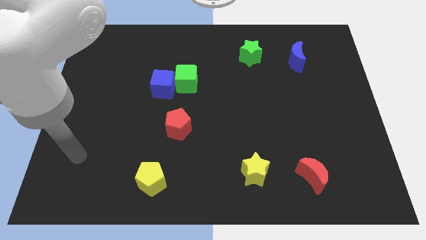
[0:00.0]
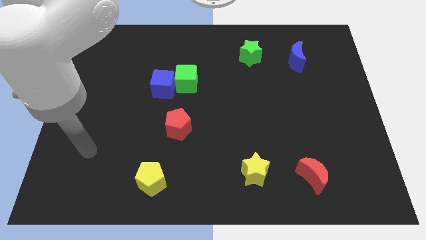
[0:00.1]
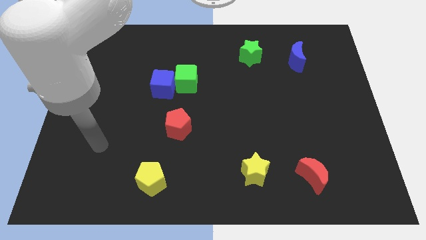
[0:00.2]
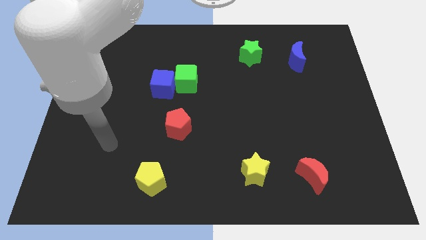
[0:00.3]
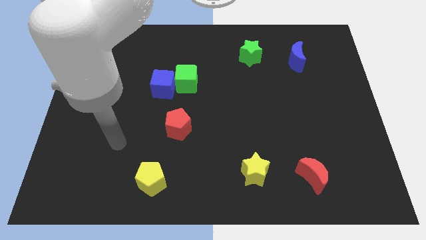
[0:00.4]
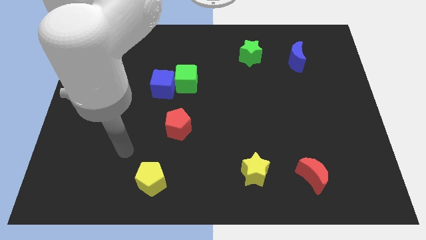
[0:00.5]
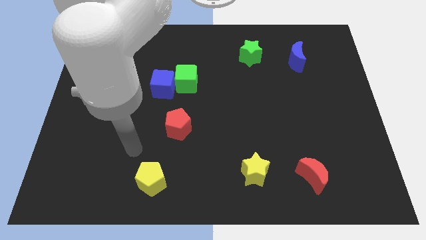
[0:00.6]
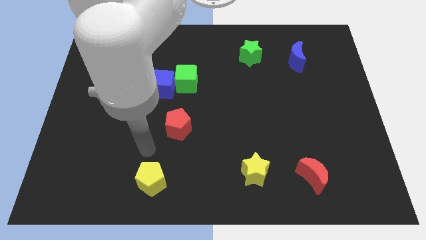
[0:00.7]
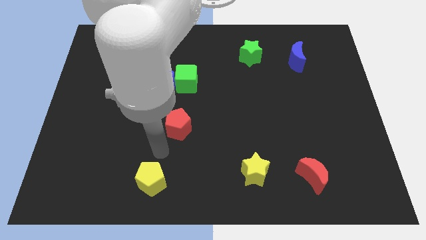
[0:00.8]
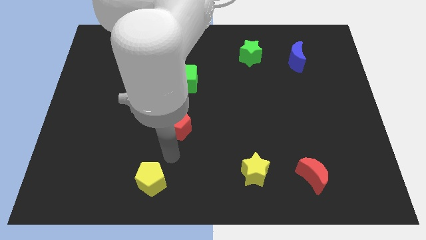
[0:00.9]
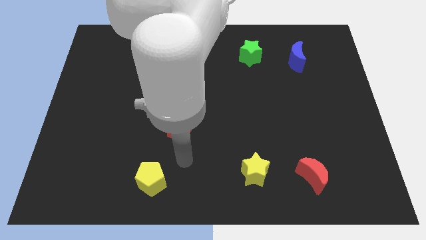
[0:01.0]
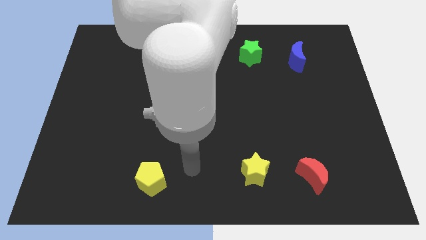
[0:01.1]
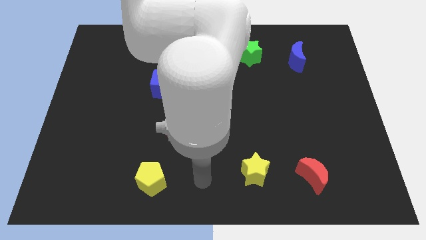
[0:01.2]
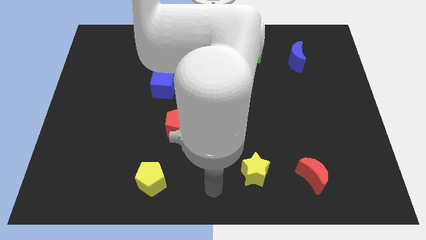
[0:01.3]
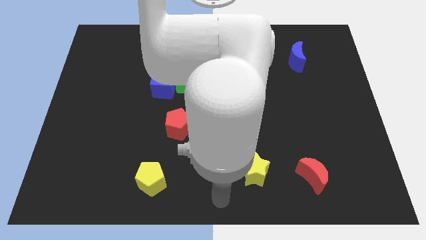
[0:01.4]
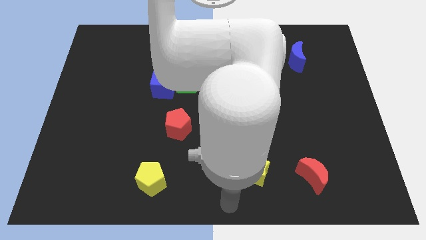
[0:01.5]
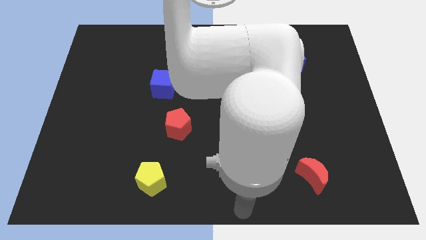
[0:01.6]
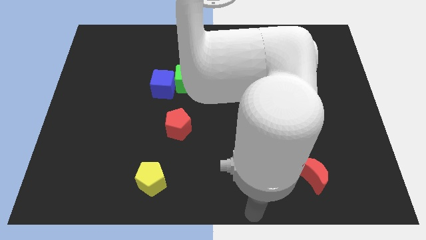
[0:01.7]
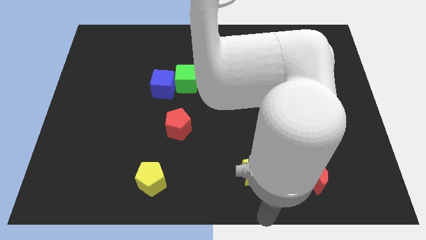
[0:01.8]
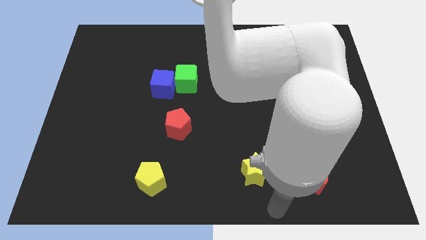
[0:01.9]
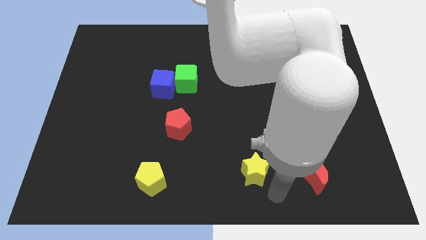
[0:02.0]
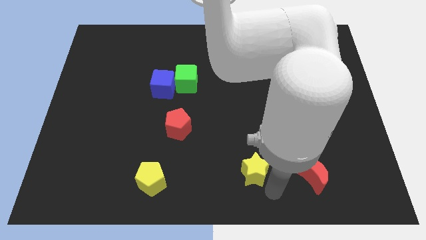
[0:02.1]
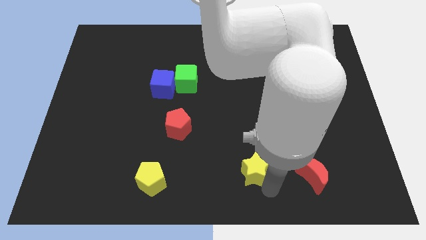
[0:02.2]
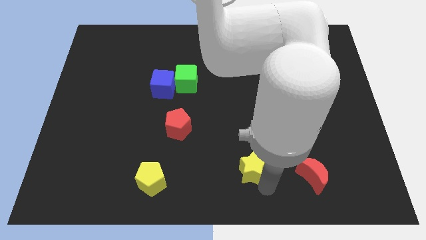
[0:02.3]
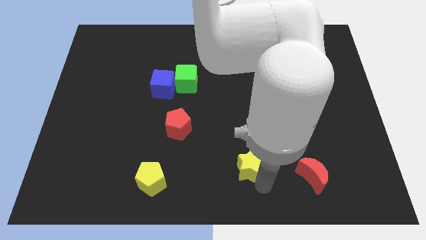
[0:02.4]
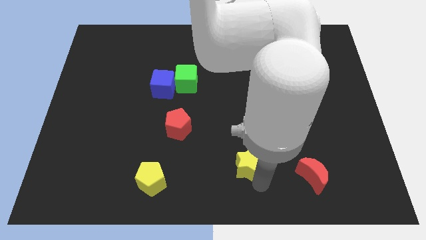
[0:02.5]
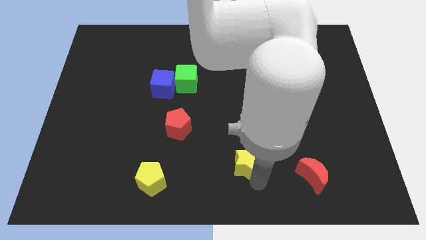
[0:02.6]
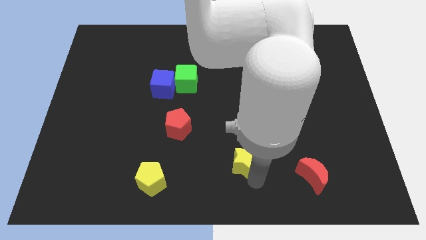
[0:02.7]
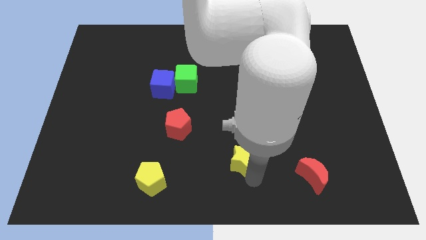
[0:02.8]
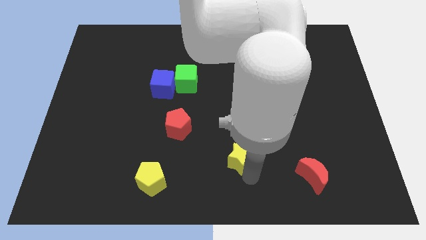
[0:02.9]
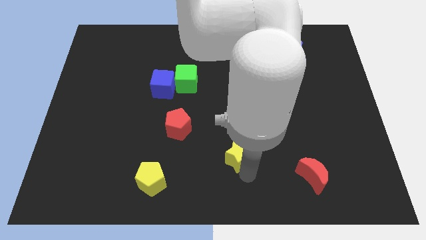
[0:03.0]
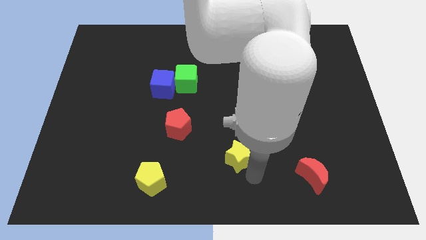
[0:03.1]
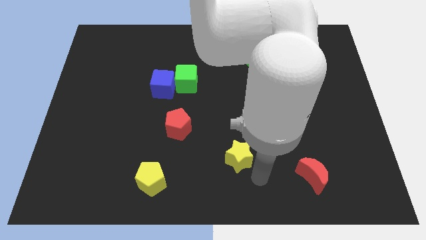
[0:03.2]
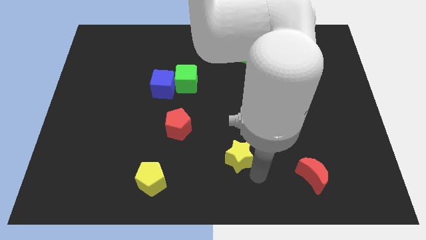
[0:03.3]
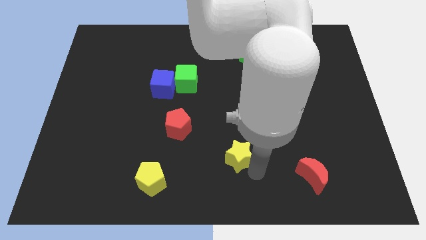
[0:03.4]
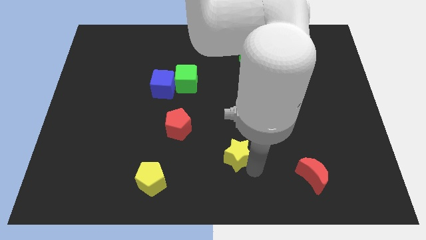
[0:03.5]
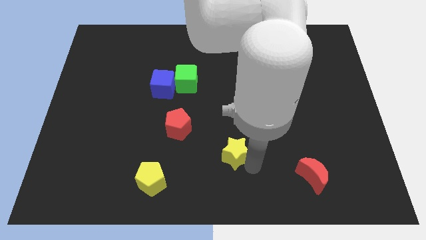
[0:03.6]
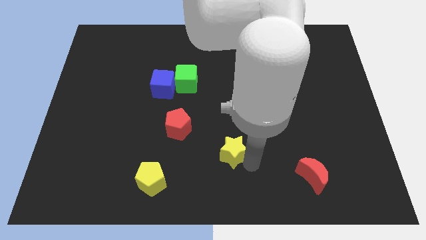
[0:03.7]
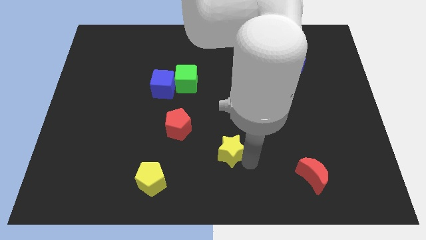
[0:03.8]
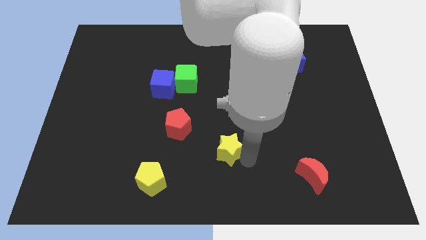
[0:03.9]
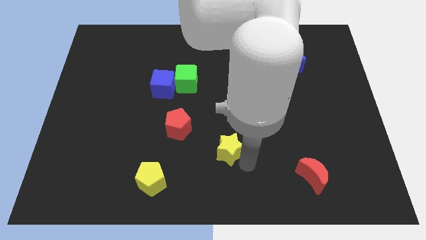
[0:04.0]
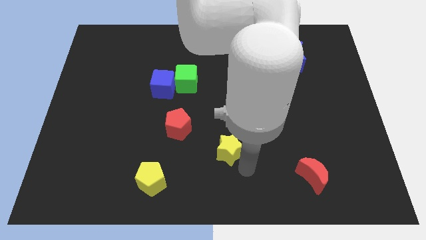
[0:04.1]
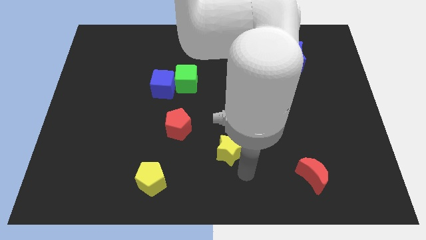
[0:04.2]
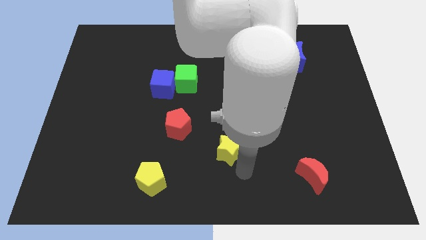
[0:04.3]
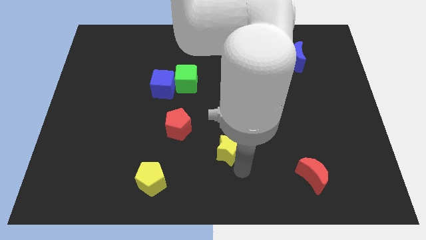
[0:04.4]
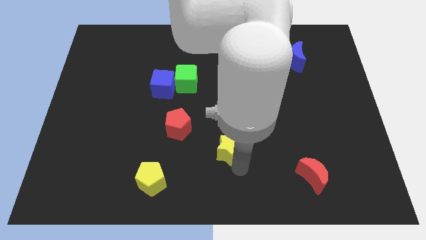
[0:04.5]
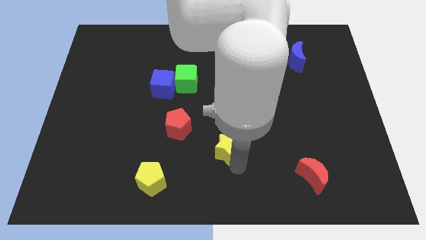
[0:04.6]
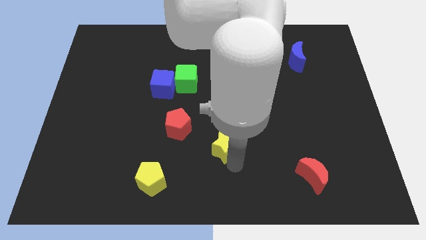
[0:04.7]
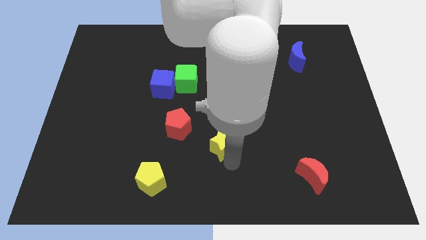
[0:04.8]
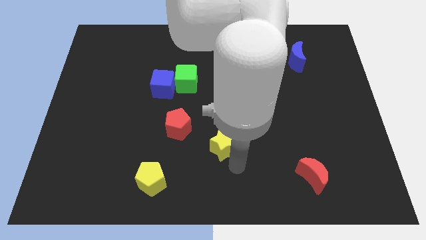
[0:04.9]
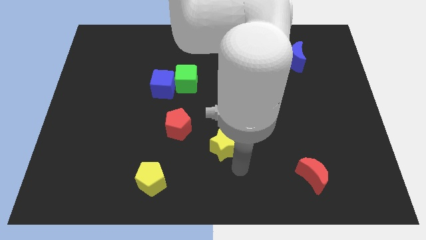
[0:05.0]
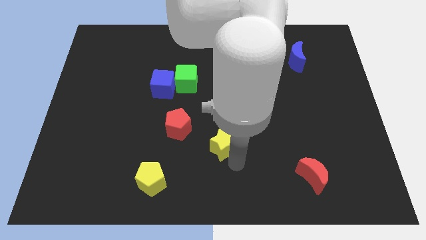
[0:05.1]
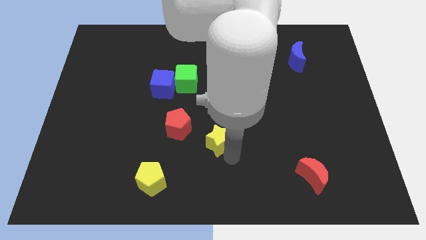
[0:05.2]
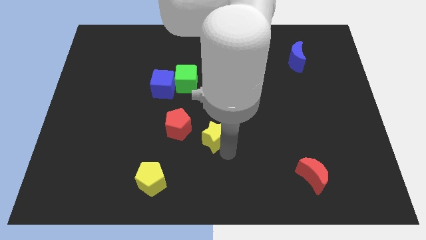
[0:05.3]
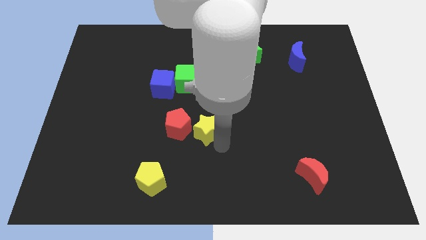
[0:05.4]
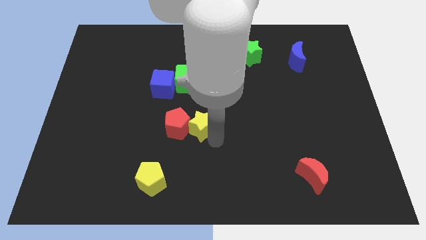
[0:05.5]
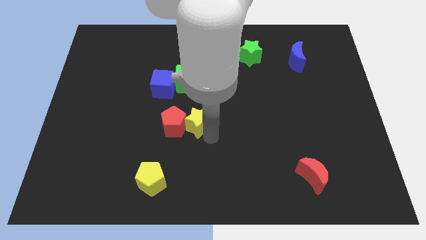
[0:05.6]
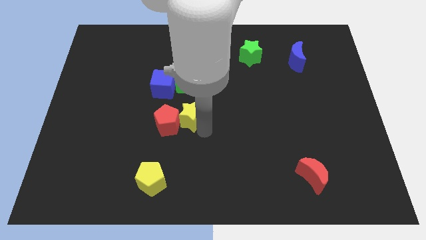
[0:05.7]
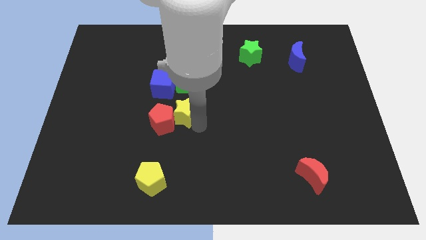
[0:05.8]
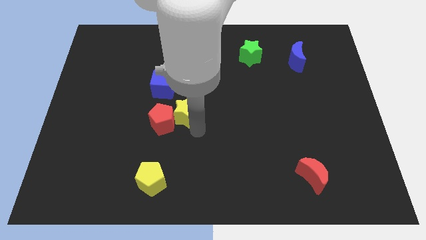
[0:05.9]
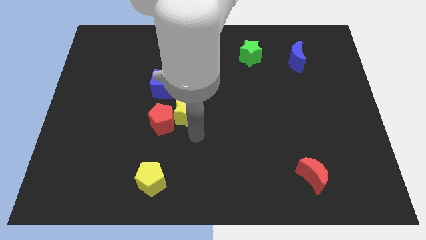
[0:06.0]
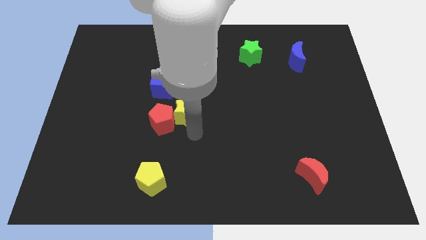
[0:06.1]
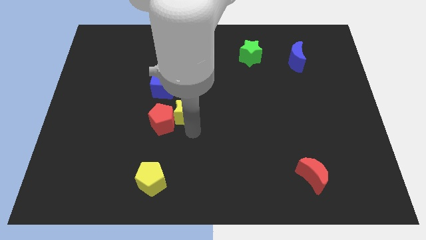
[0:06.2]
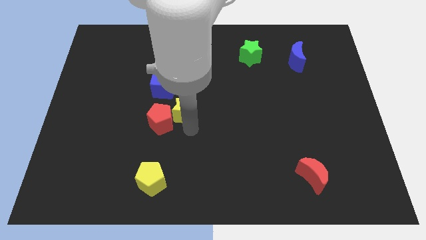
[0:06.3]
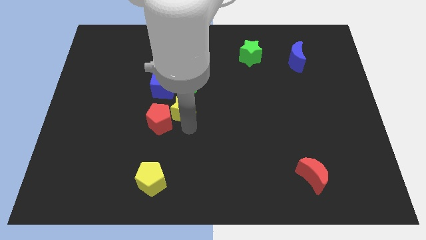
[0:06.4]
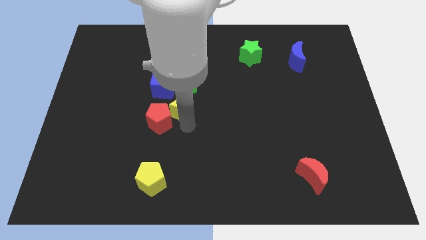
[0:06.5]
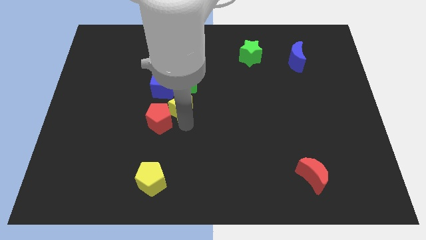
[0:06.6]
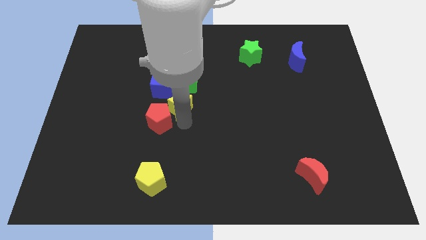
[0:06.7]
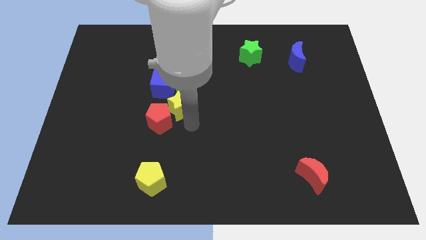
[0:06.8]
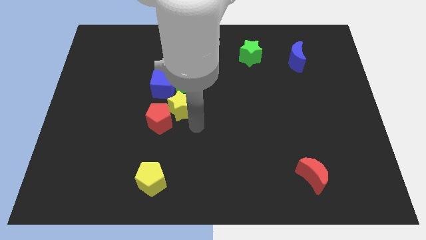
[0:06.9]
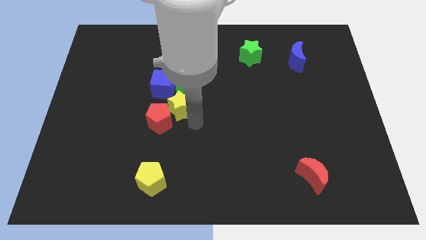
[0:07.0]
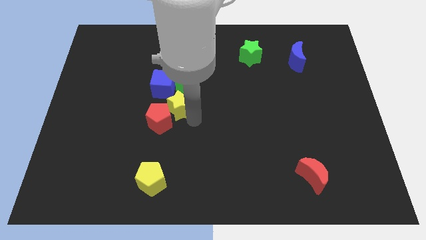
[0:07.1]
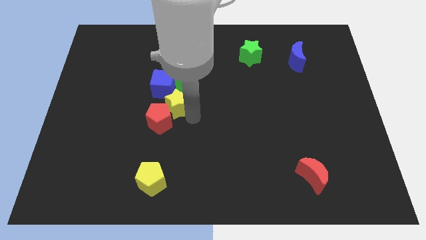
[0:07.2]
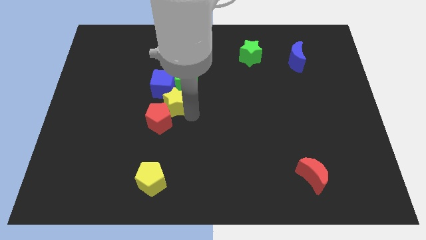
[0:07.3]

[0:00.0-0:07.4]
put the yellow star next to the blue cube
